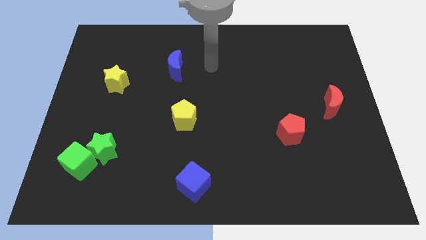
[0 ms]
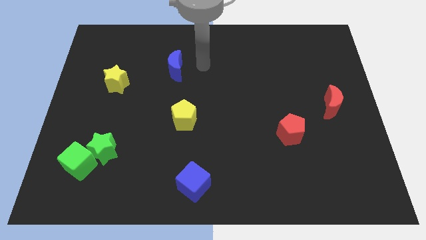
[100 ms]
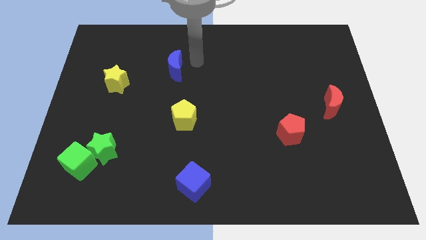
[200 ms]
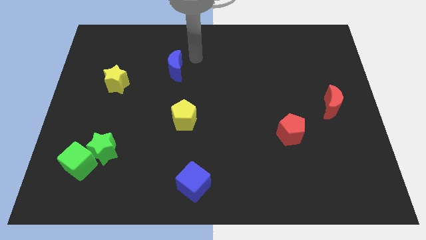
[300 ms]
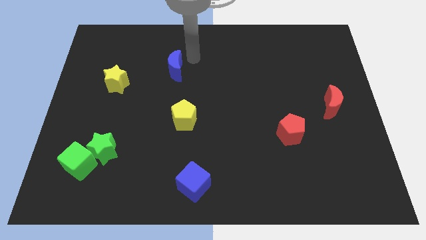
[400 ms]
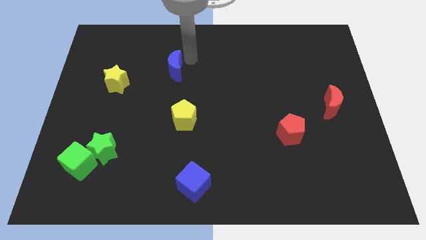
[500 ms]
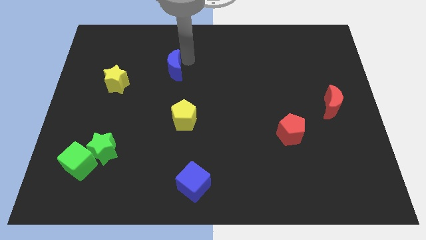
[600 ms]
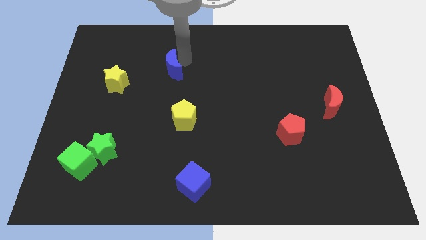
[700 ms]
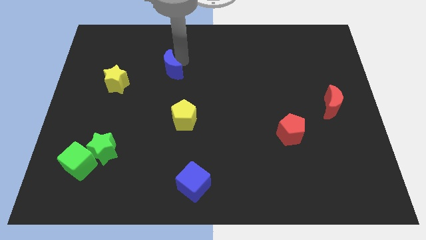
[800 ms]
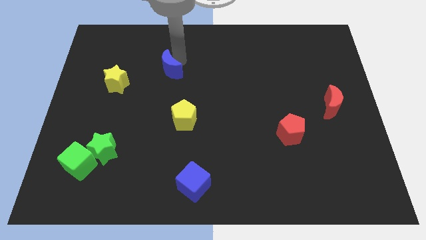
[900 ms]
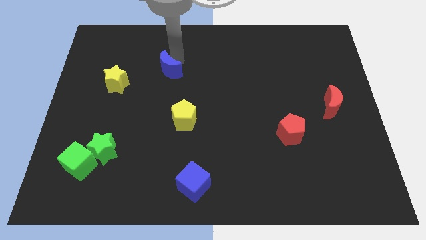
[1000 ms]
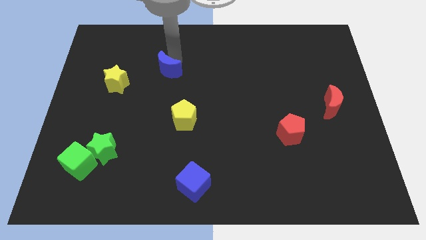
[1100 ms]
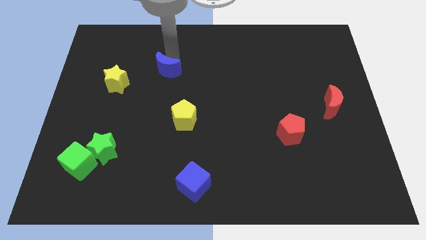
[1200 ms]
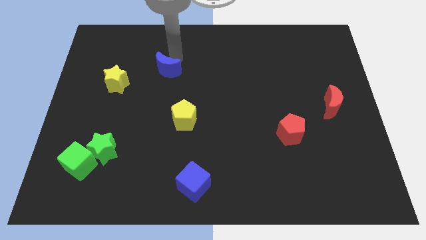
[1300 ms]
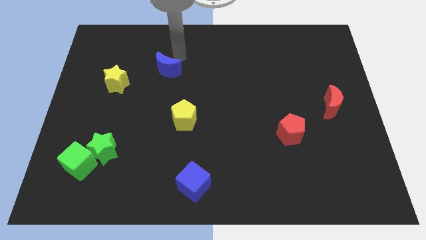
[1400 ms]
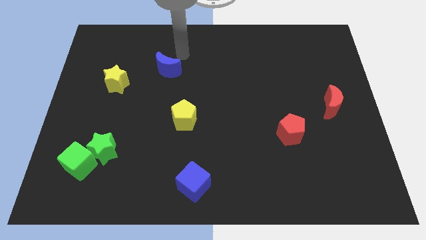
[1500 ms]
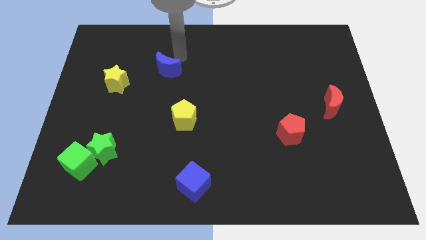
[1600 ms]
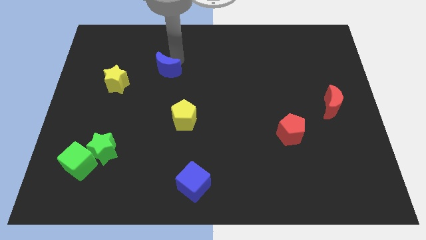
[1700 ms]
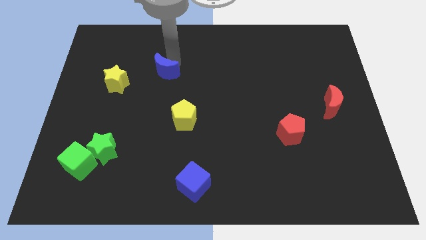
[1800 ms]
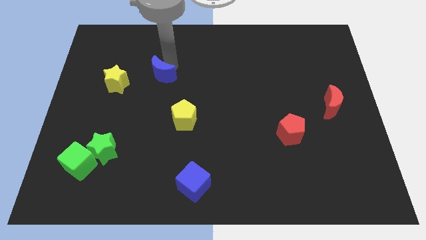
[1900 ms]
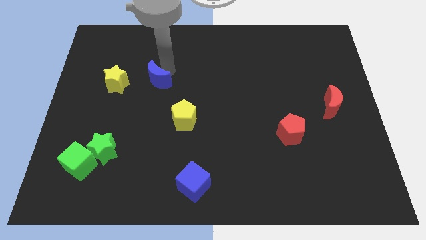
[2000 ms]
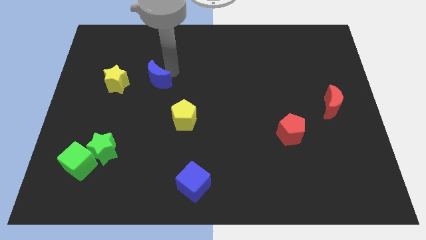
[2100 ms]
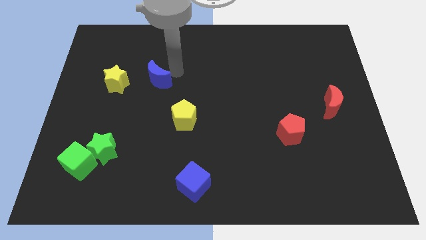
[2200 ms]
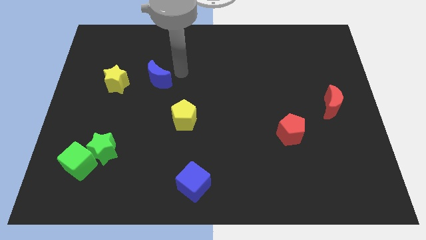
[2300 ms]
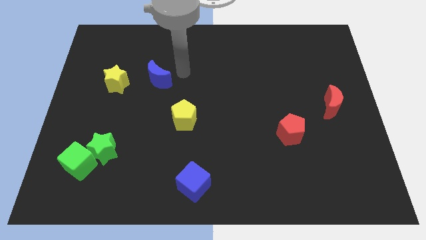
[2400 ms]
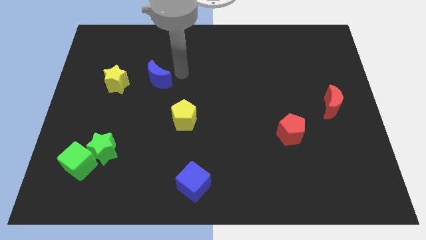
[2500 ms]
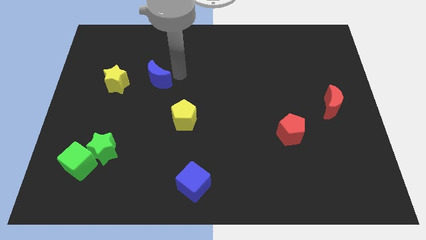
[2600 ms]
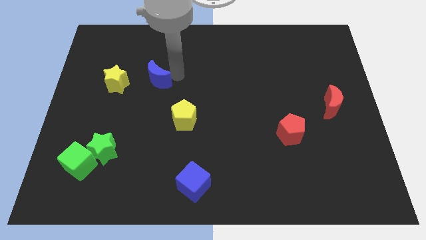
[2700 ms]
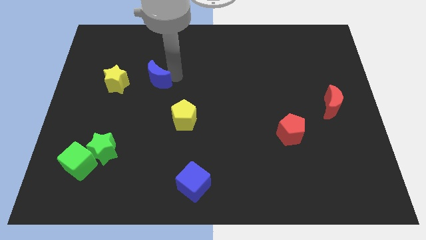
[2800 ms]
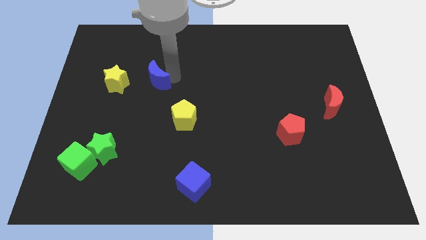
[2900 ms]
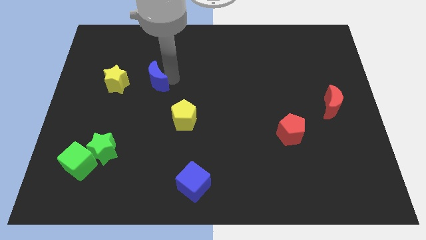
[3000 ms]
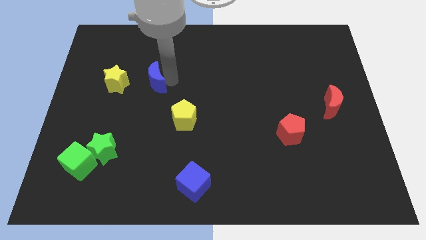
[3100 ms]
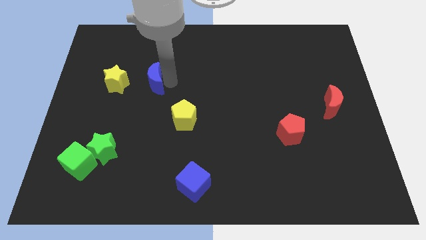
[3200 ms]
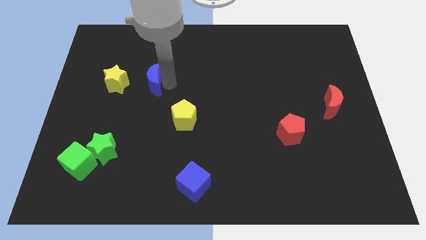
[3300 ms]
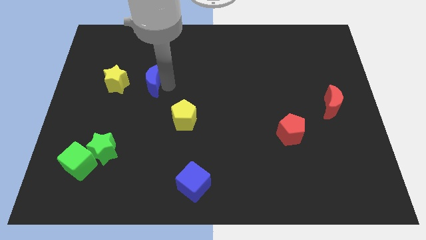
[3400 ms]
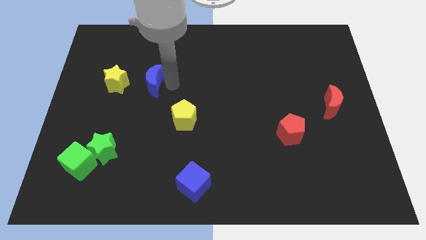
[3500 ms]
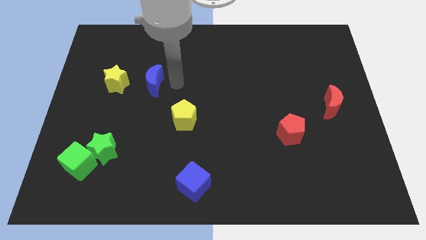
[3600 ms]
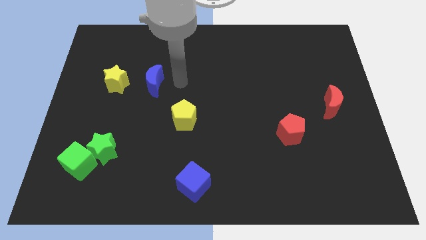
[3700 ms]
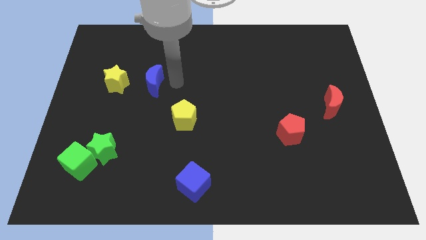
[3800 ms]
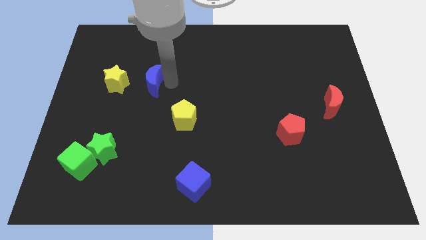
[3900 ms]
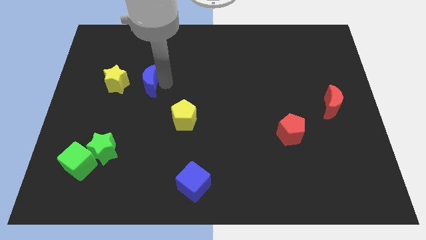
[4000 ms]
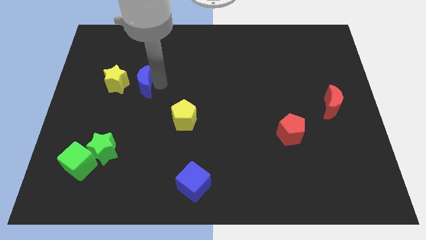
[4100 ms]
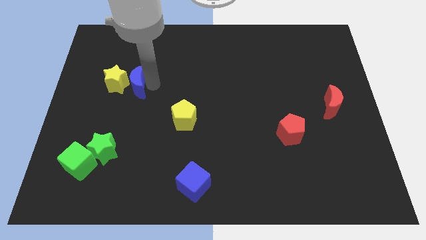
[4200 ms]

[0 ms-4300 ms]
slide the blue moon close to the yellow star

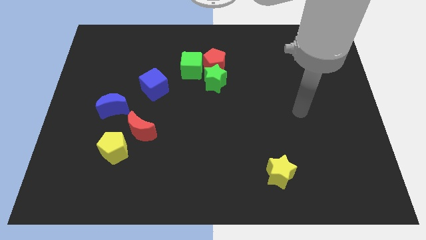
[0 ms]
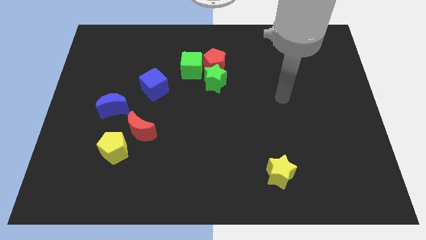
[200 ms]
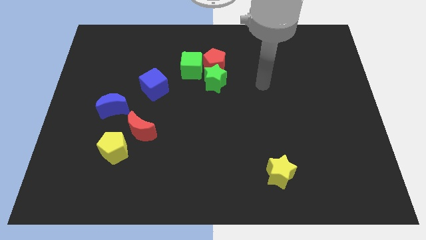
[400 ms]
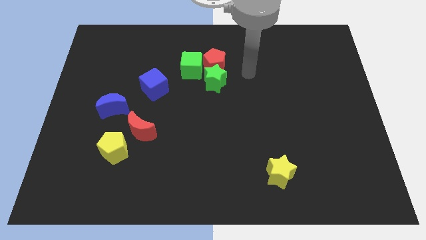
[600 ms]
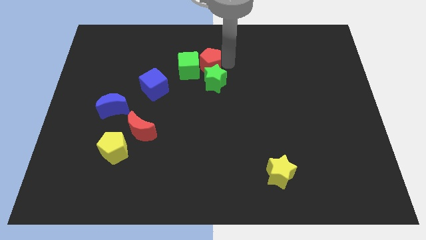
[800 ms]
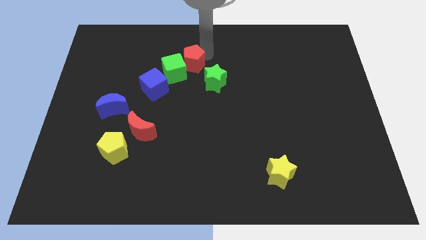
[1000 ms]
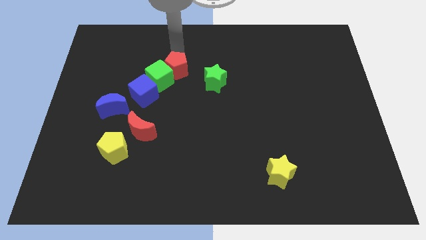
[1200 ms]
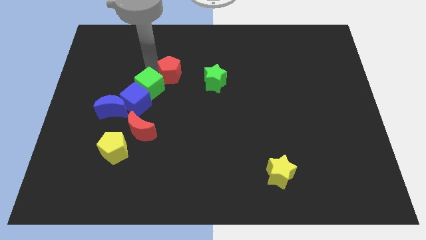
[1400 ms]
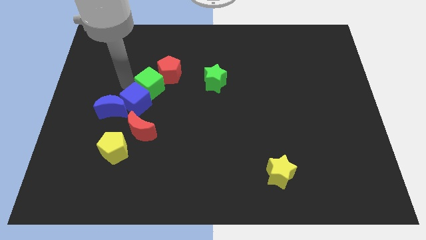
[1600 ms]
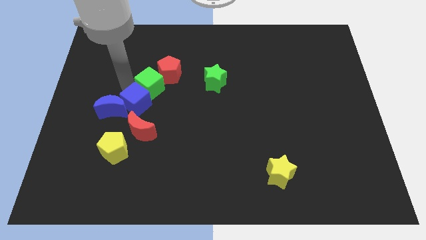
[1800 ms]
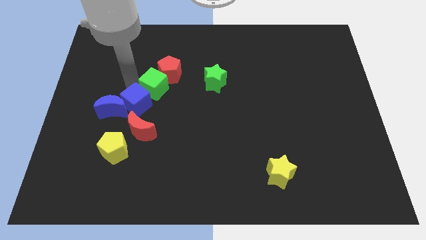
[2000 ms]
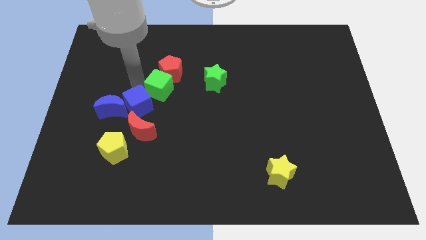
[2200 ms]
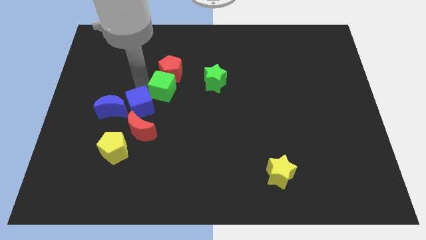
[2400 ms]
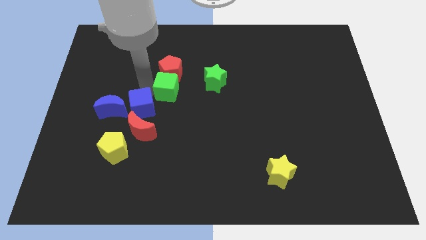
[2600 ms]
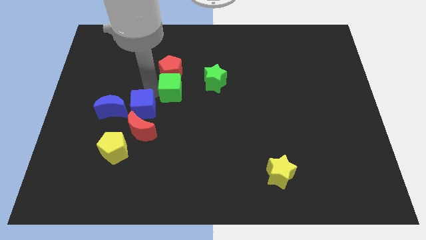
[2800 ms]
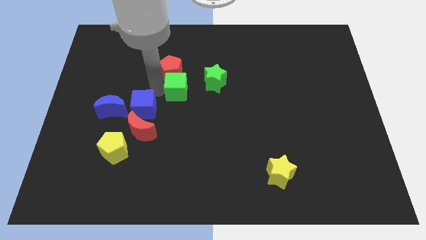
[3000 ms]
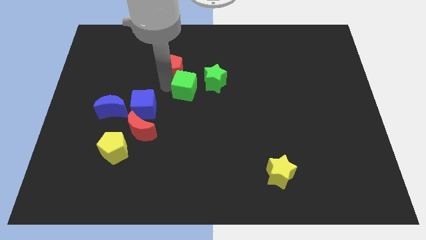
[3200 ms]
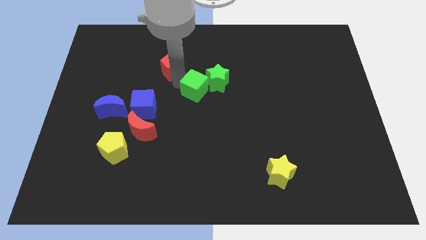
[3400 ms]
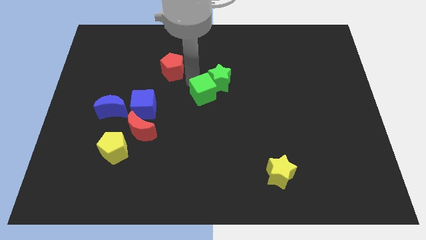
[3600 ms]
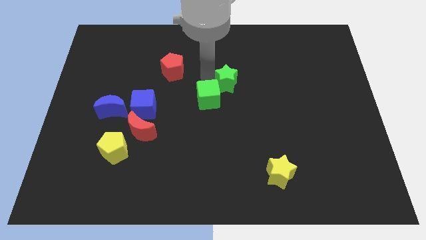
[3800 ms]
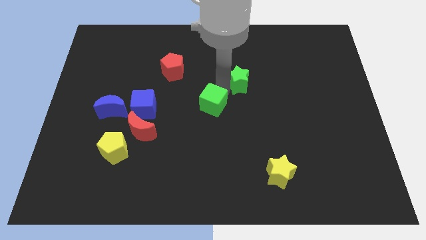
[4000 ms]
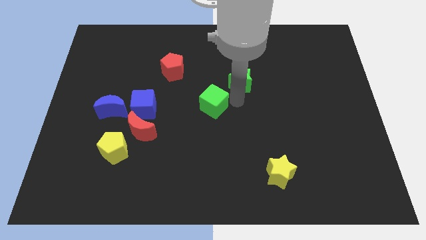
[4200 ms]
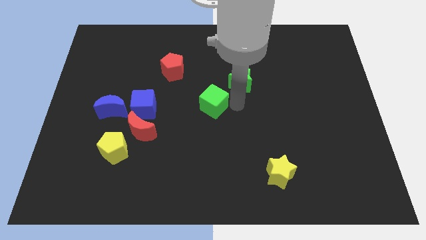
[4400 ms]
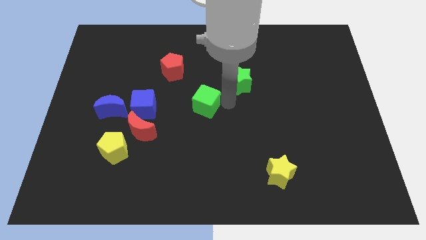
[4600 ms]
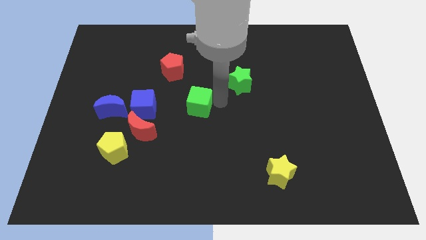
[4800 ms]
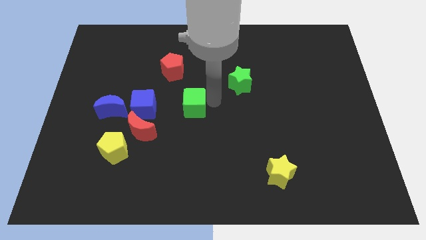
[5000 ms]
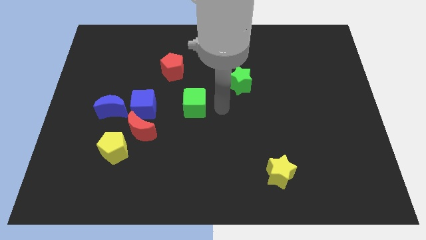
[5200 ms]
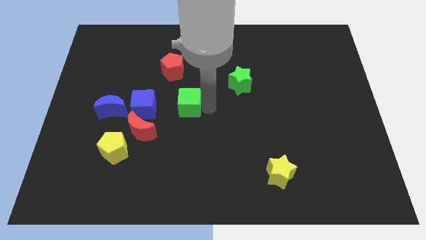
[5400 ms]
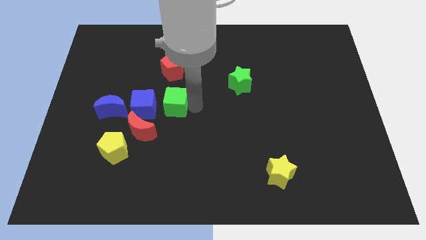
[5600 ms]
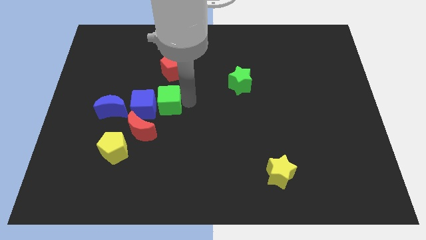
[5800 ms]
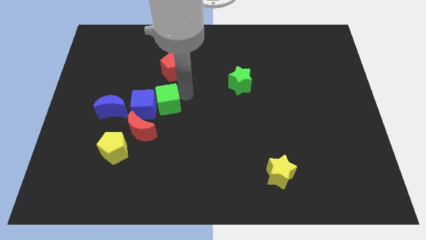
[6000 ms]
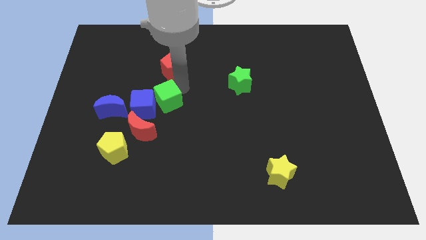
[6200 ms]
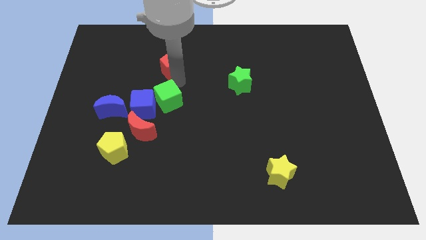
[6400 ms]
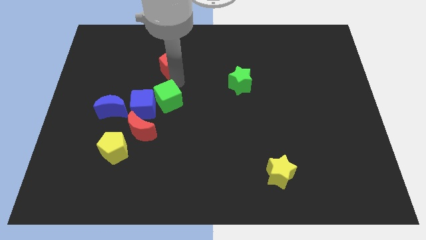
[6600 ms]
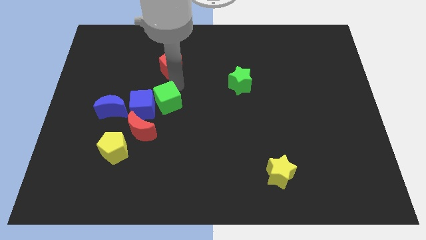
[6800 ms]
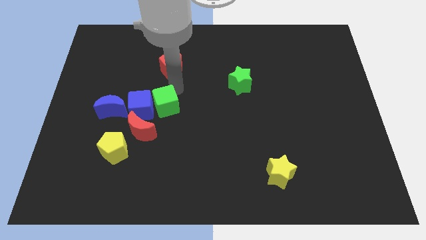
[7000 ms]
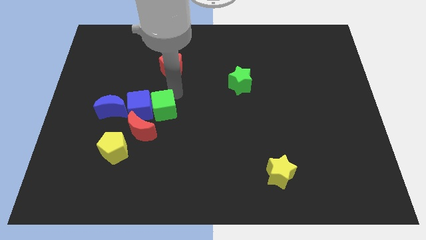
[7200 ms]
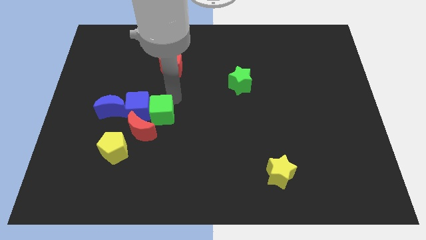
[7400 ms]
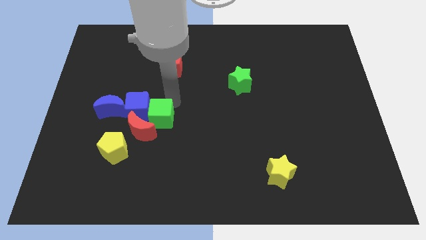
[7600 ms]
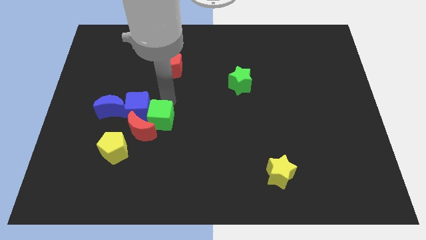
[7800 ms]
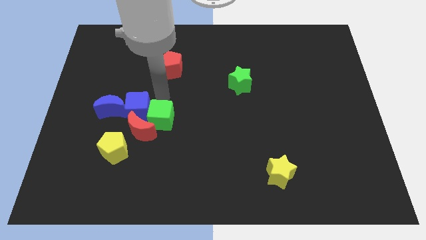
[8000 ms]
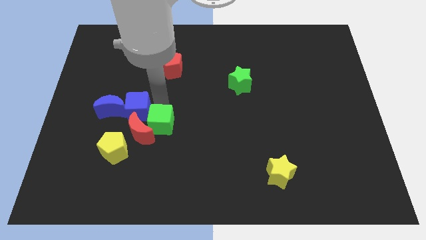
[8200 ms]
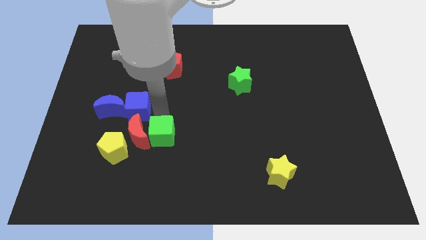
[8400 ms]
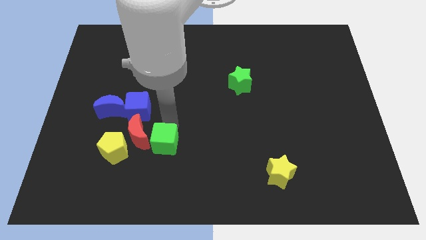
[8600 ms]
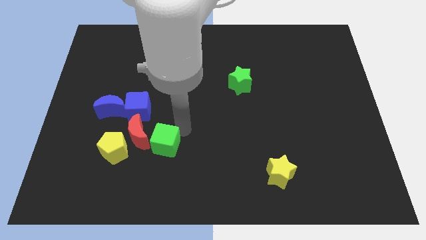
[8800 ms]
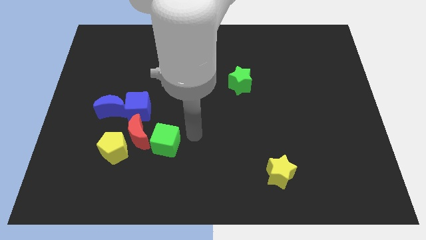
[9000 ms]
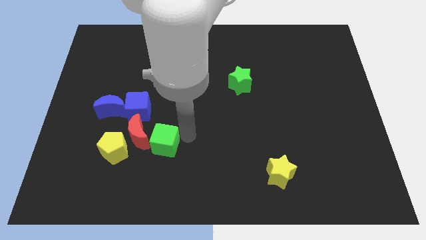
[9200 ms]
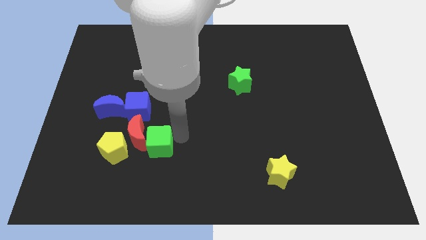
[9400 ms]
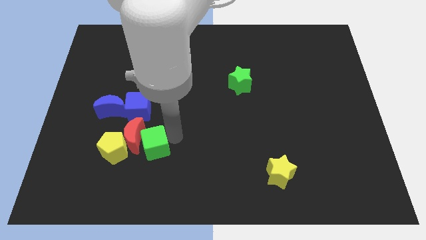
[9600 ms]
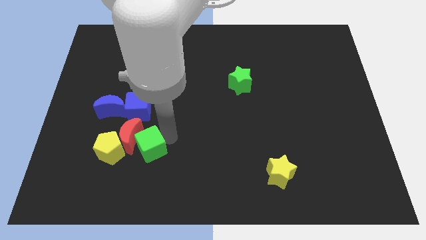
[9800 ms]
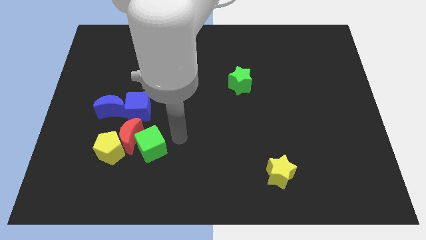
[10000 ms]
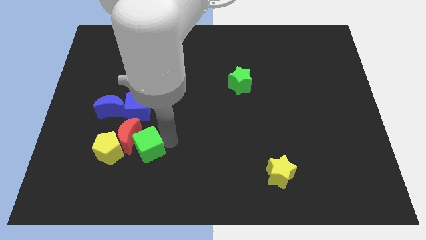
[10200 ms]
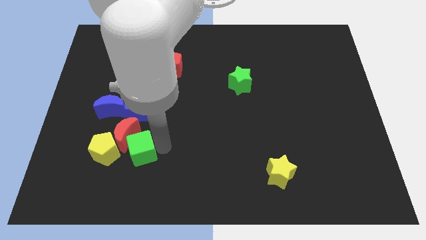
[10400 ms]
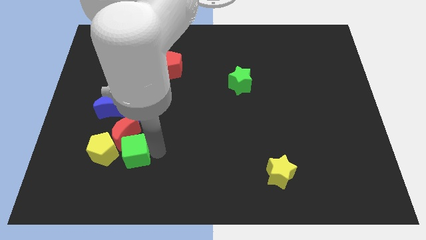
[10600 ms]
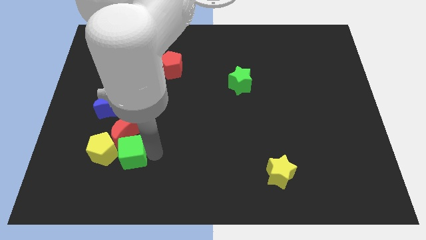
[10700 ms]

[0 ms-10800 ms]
push the green cube to the yellow pentagon
